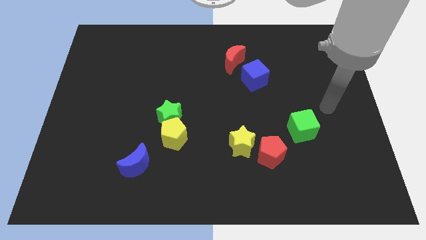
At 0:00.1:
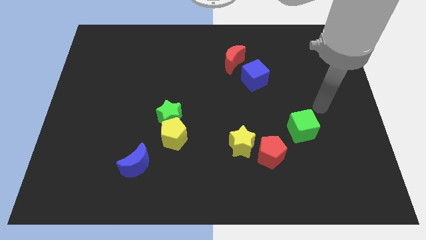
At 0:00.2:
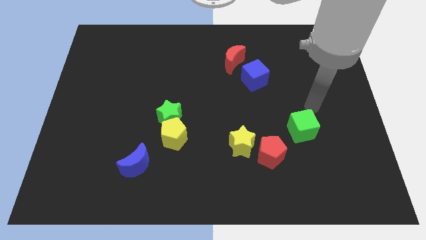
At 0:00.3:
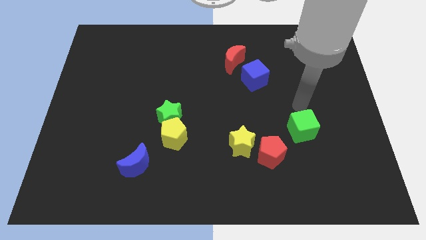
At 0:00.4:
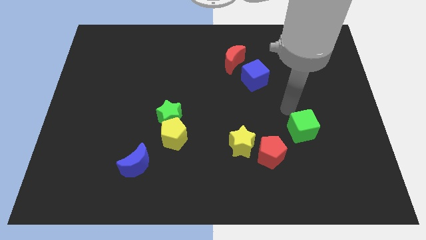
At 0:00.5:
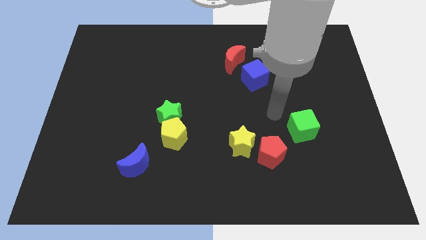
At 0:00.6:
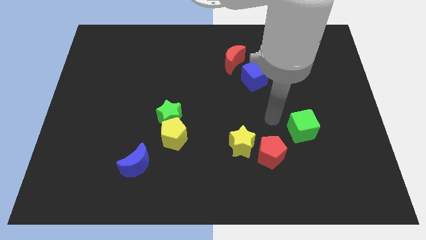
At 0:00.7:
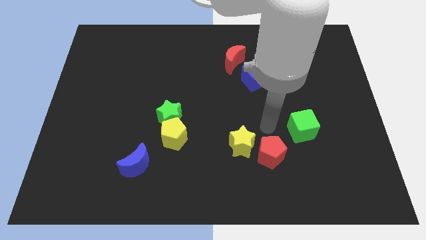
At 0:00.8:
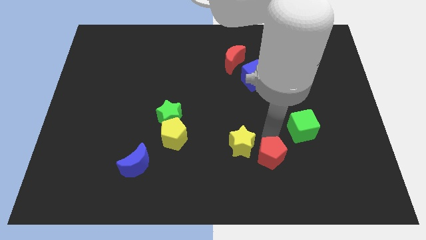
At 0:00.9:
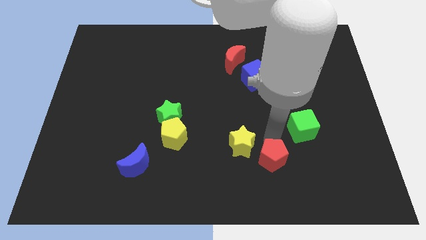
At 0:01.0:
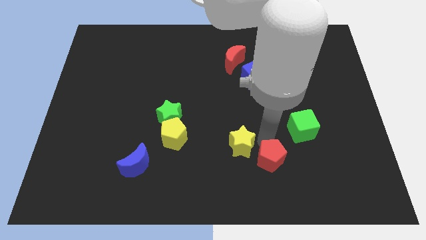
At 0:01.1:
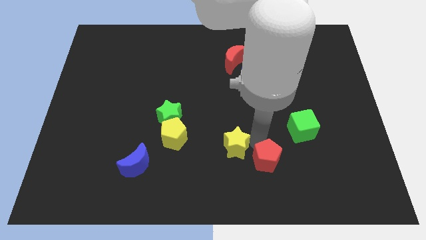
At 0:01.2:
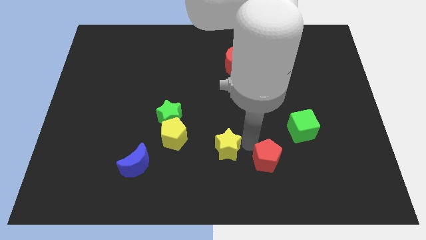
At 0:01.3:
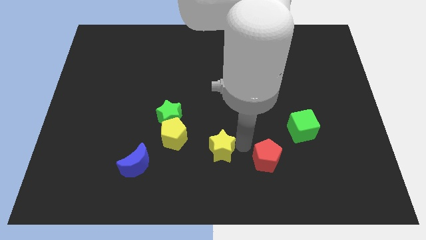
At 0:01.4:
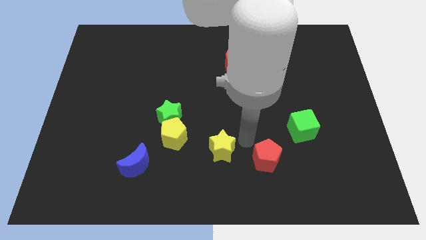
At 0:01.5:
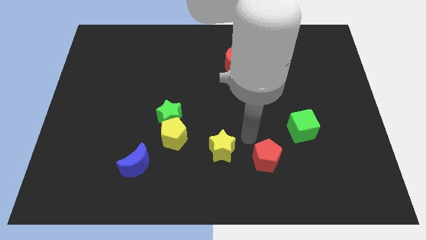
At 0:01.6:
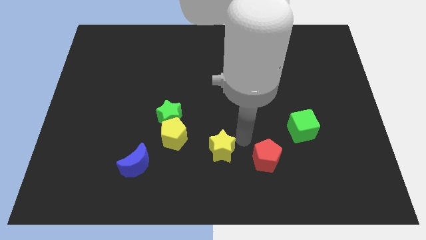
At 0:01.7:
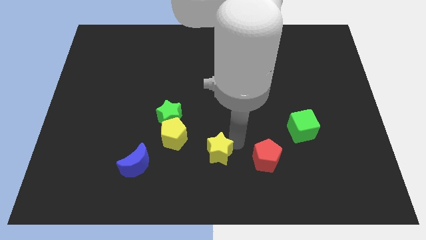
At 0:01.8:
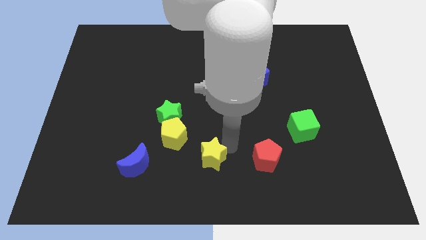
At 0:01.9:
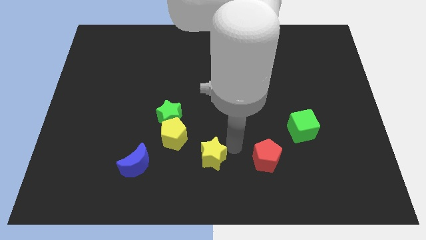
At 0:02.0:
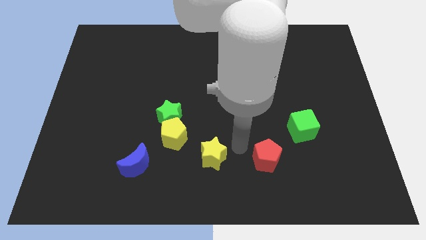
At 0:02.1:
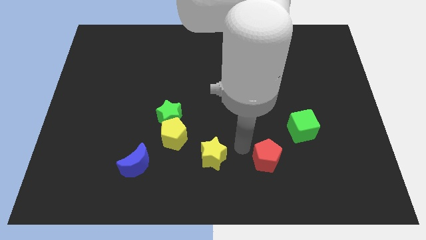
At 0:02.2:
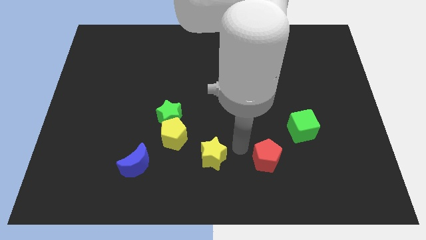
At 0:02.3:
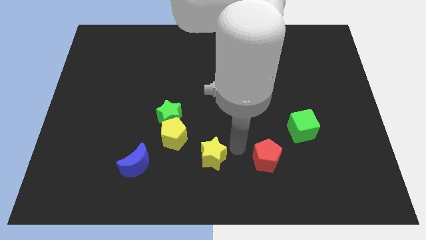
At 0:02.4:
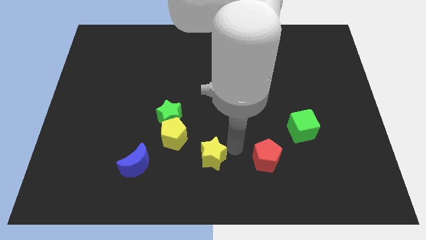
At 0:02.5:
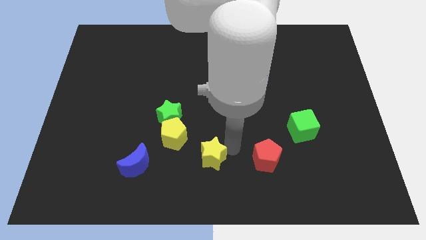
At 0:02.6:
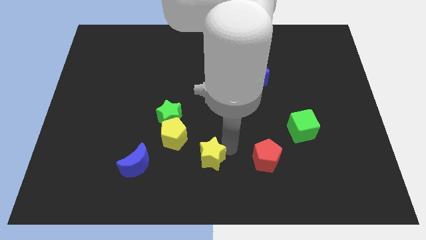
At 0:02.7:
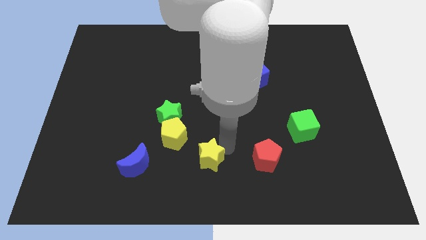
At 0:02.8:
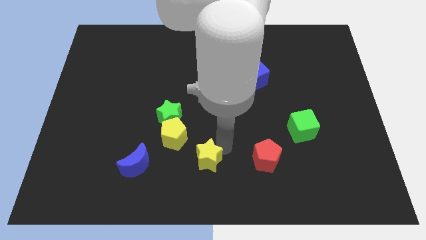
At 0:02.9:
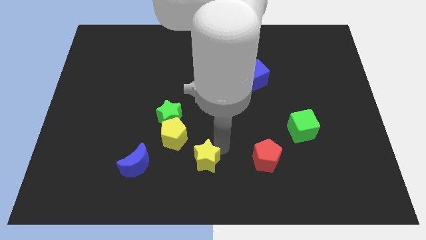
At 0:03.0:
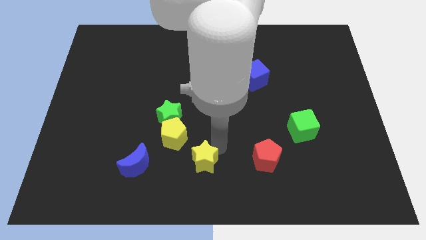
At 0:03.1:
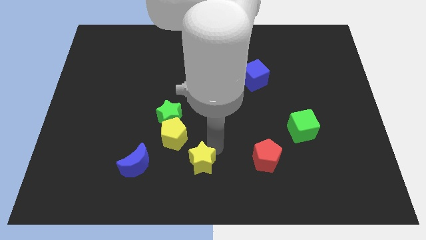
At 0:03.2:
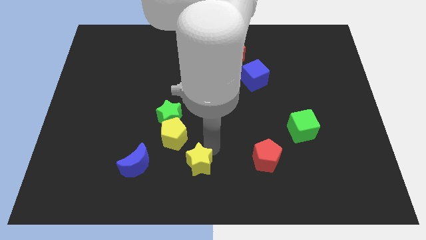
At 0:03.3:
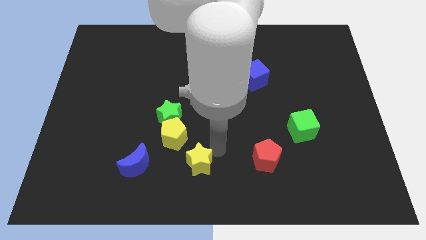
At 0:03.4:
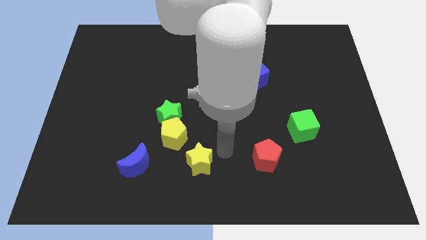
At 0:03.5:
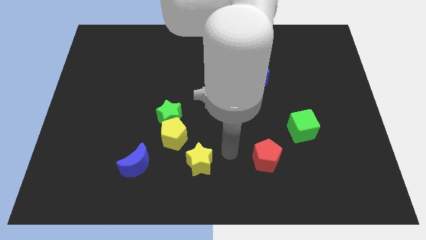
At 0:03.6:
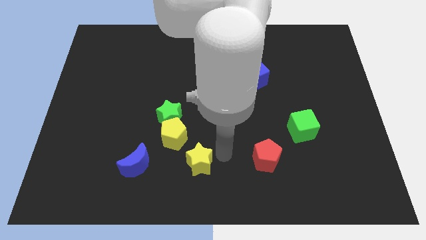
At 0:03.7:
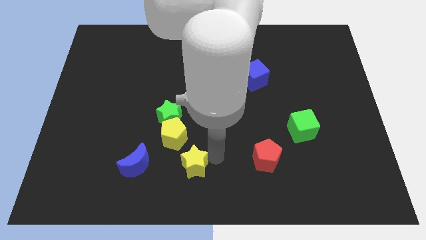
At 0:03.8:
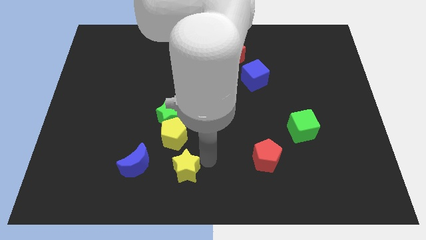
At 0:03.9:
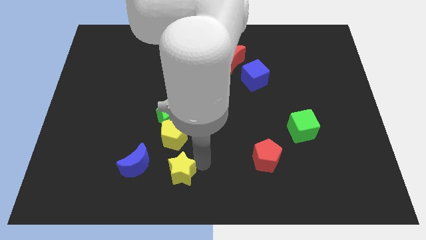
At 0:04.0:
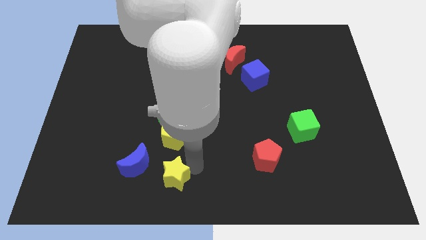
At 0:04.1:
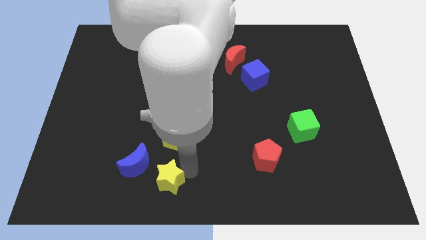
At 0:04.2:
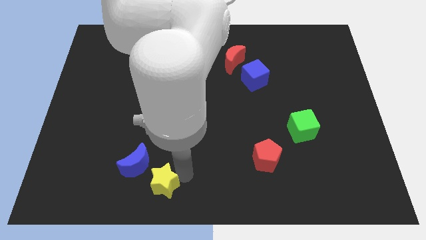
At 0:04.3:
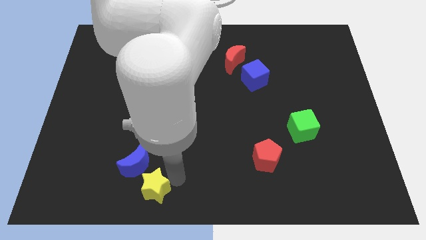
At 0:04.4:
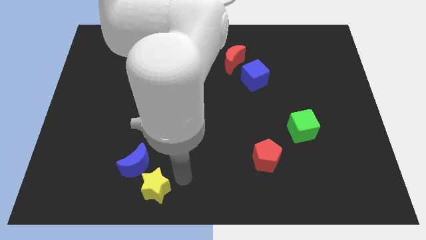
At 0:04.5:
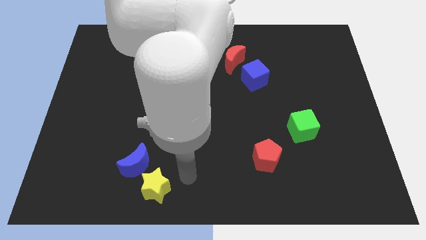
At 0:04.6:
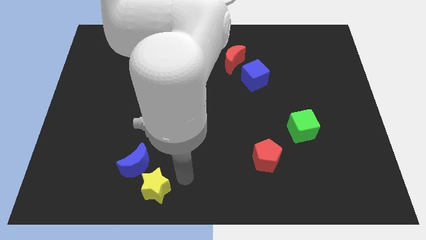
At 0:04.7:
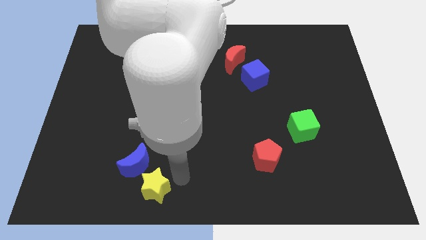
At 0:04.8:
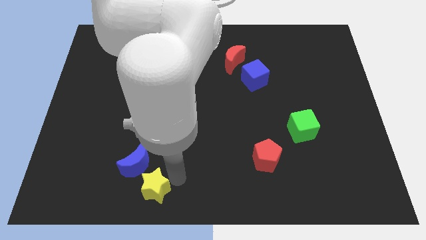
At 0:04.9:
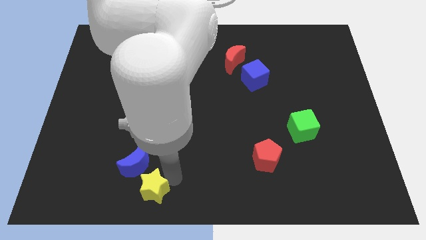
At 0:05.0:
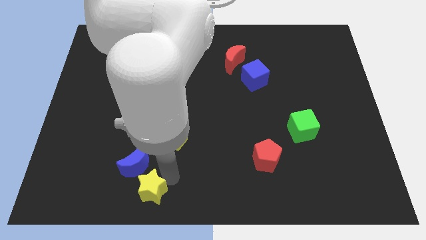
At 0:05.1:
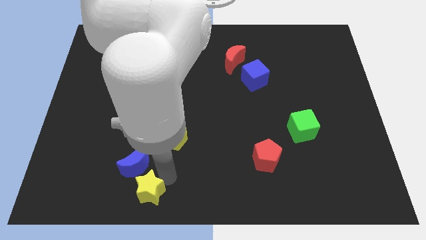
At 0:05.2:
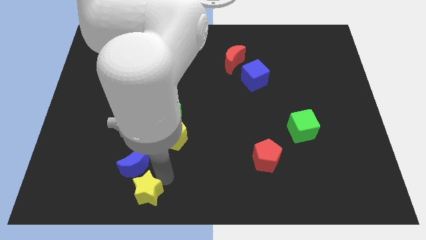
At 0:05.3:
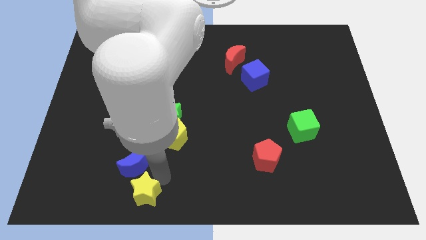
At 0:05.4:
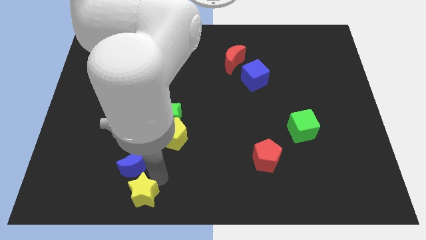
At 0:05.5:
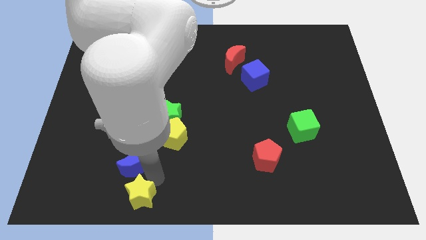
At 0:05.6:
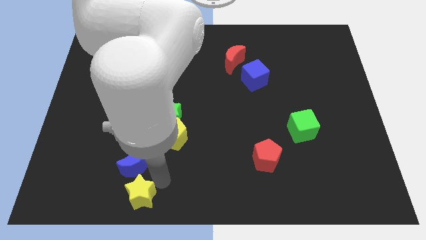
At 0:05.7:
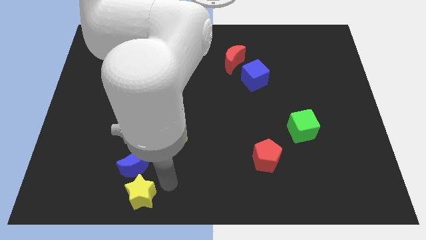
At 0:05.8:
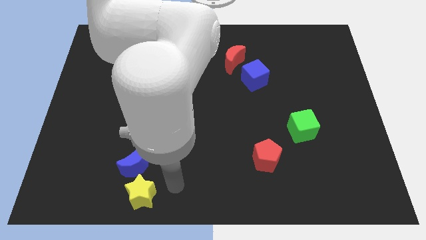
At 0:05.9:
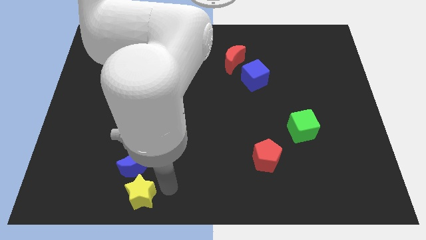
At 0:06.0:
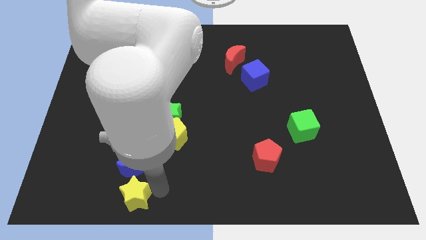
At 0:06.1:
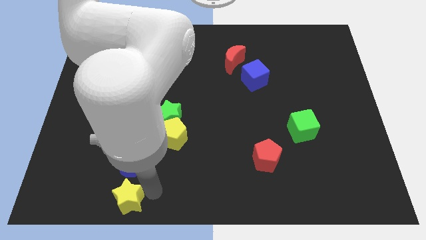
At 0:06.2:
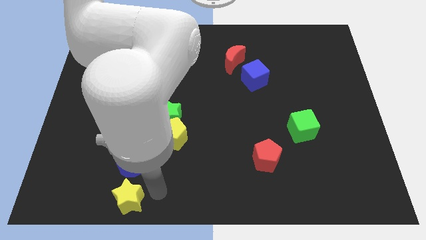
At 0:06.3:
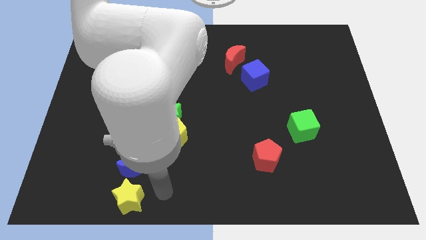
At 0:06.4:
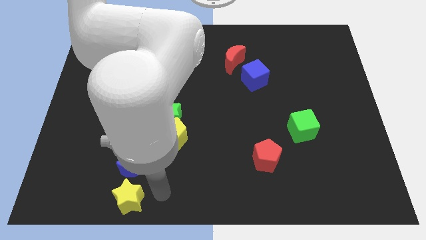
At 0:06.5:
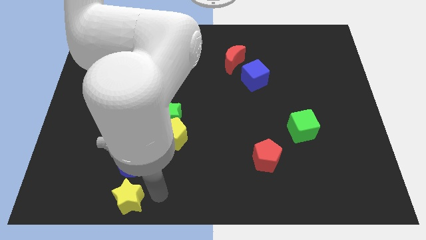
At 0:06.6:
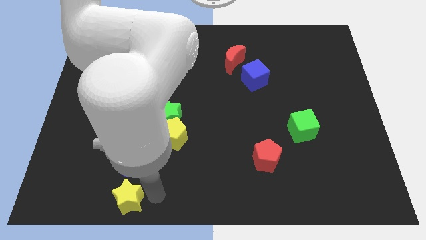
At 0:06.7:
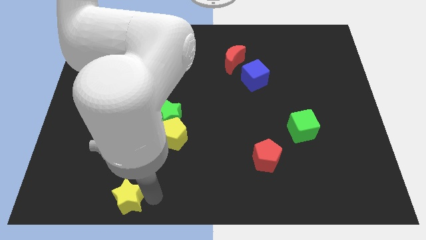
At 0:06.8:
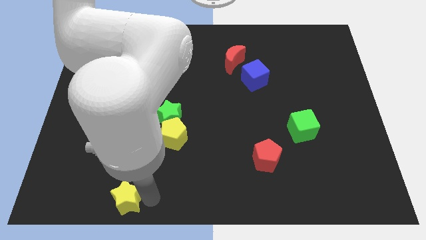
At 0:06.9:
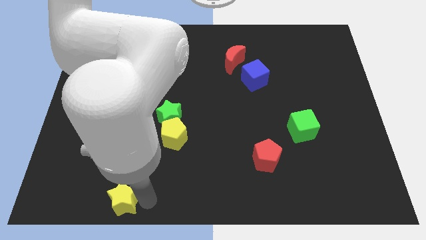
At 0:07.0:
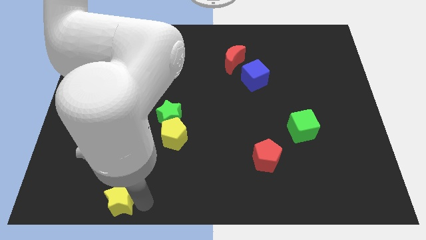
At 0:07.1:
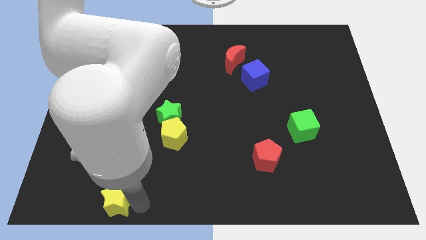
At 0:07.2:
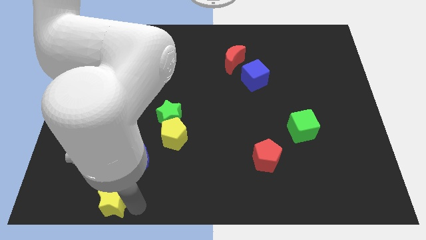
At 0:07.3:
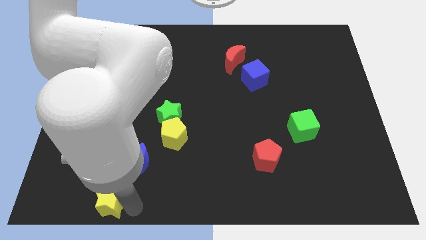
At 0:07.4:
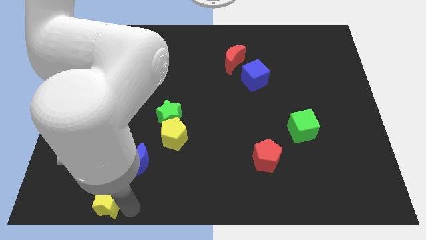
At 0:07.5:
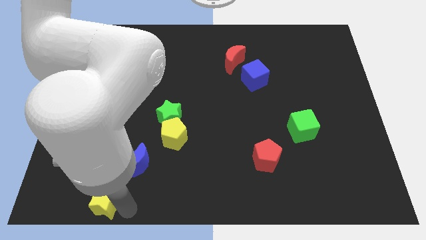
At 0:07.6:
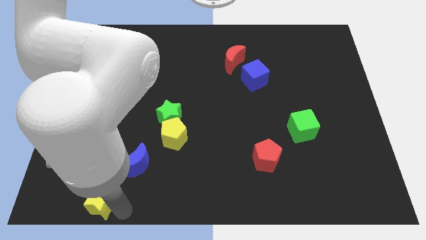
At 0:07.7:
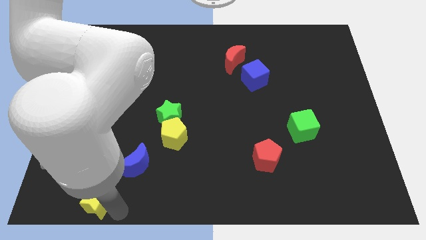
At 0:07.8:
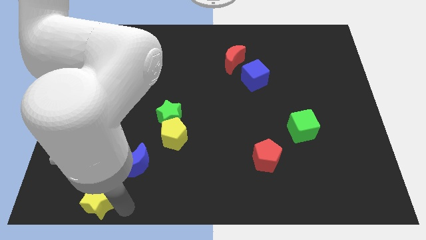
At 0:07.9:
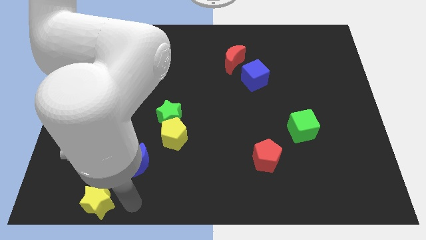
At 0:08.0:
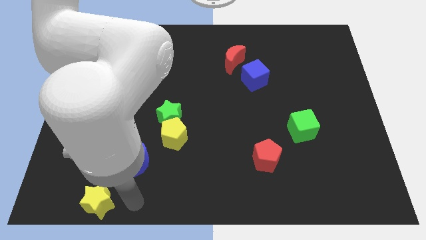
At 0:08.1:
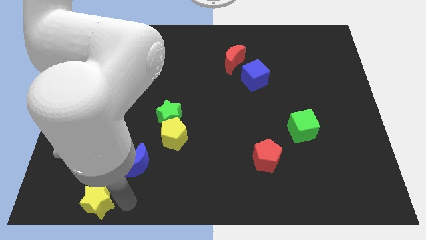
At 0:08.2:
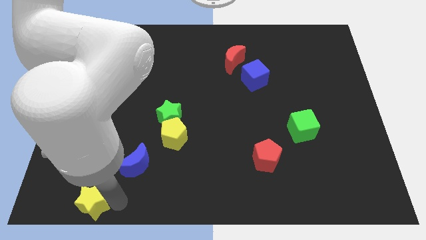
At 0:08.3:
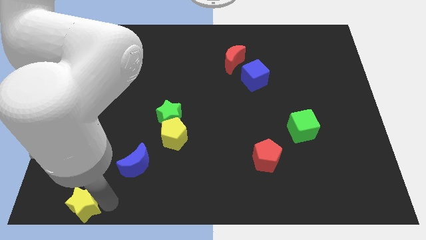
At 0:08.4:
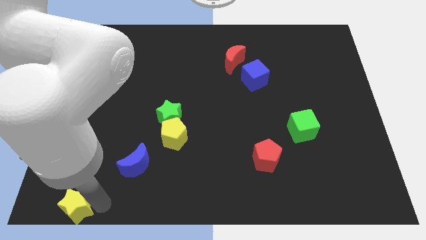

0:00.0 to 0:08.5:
put the yellow star to the bottom left
